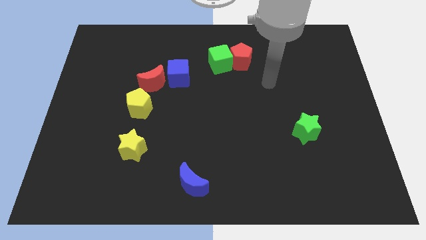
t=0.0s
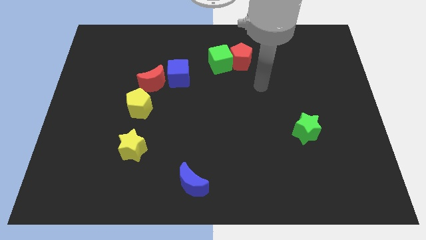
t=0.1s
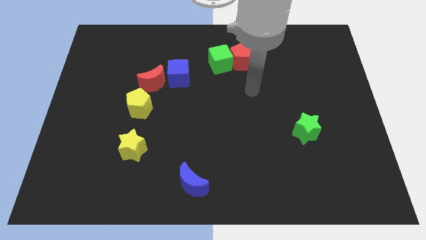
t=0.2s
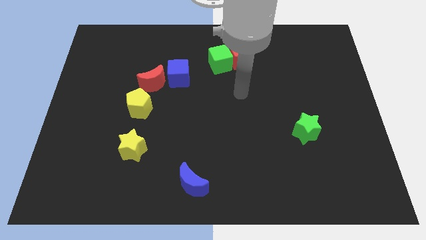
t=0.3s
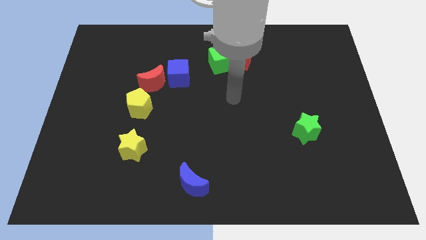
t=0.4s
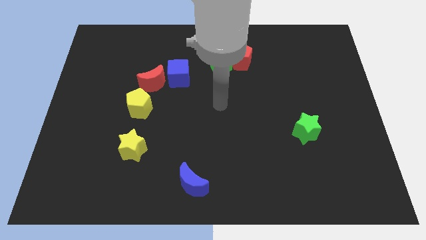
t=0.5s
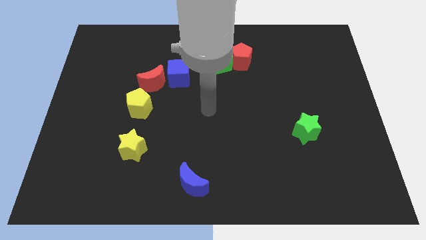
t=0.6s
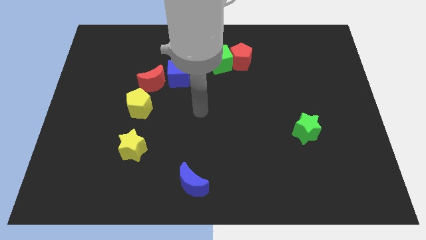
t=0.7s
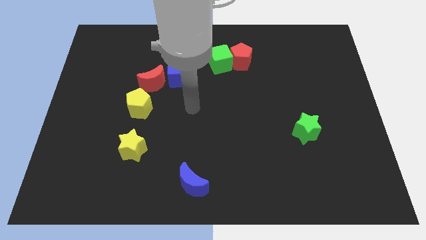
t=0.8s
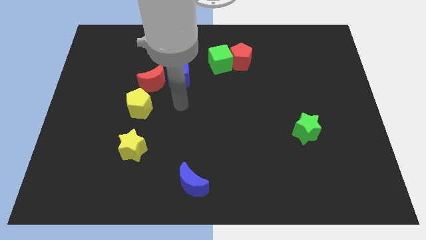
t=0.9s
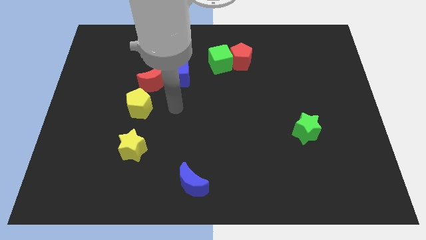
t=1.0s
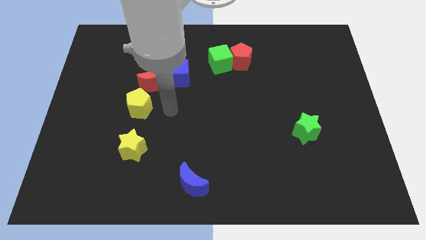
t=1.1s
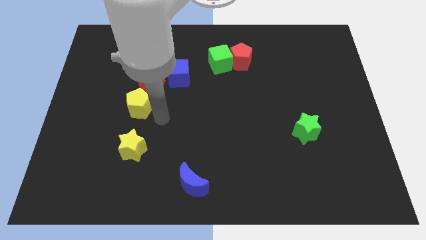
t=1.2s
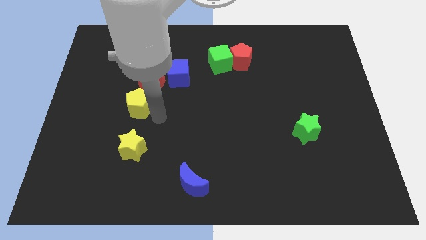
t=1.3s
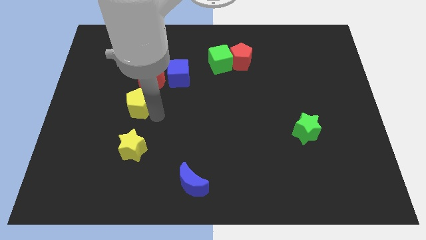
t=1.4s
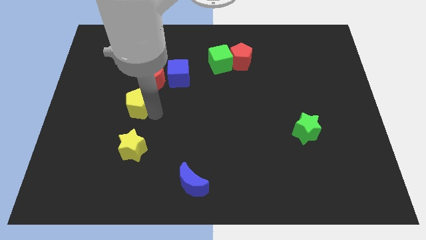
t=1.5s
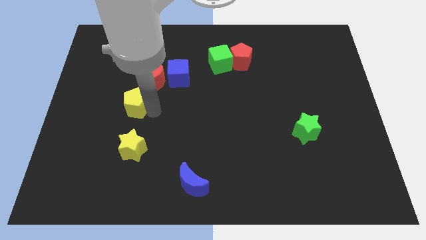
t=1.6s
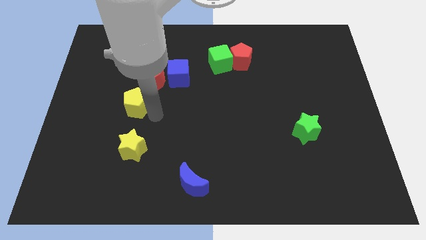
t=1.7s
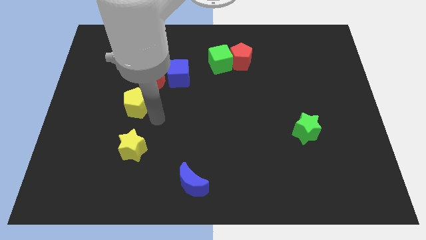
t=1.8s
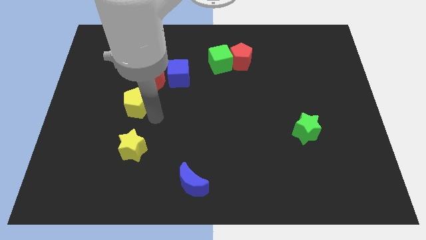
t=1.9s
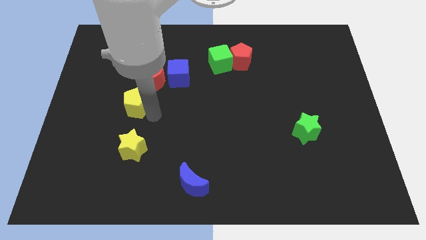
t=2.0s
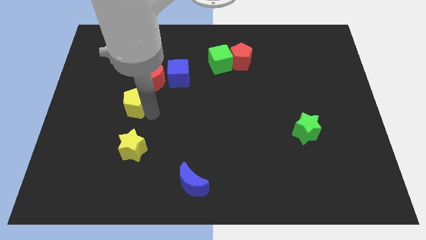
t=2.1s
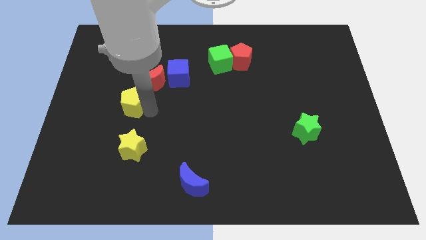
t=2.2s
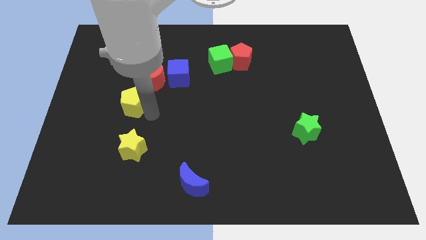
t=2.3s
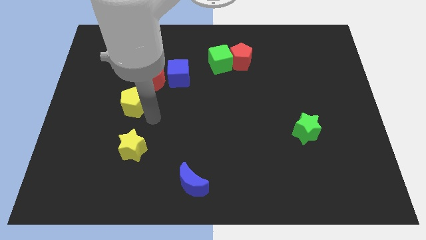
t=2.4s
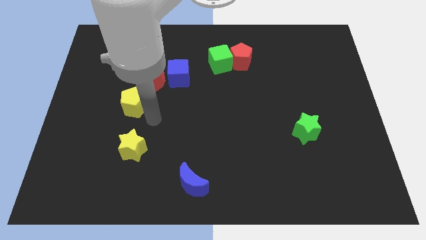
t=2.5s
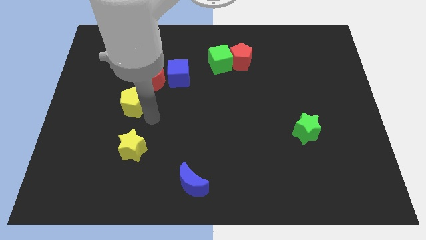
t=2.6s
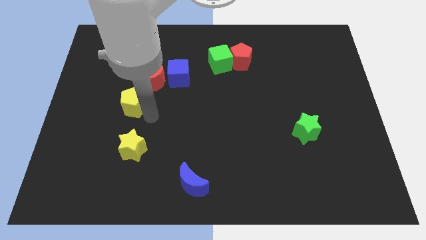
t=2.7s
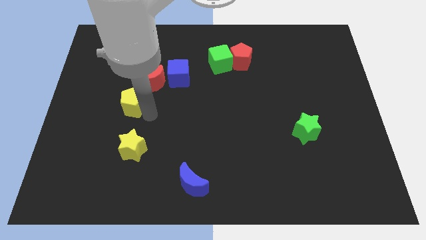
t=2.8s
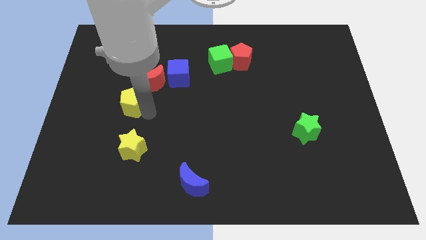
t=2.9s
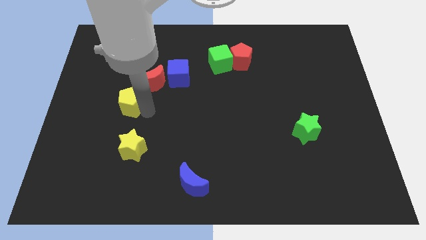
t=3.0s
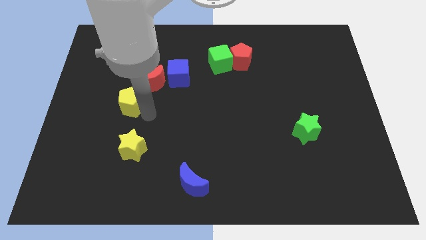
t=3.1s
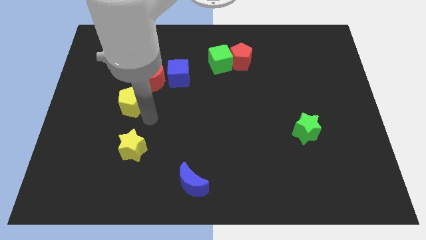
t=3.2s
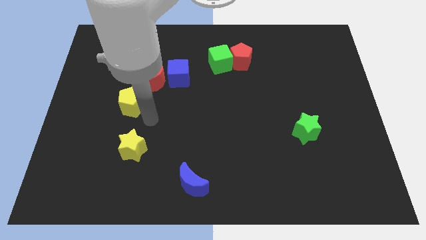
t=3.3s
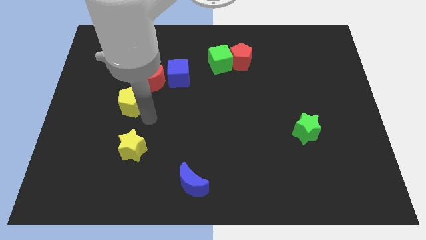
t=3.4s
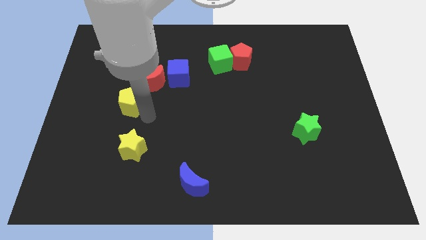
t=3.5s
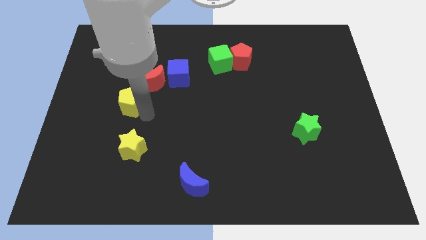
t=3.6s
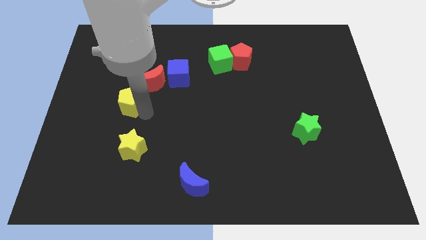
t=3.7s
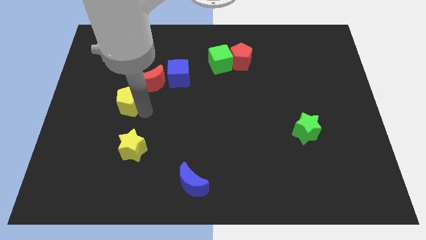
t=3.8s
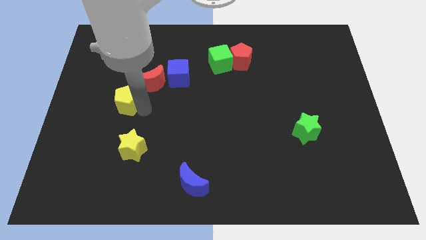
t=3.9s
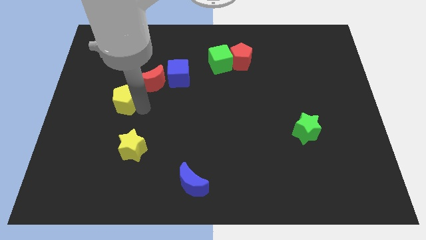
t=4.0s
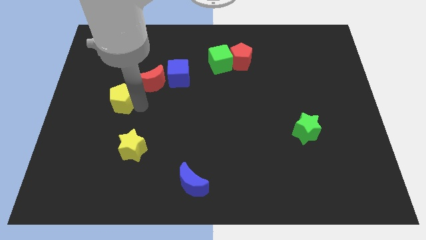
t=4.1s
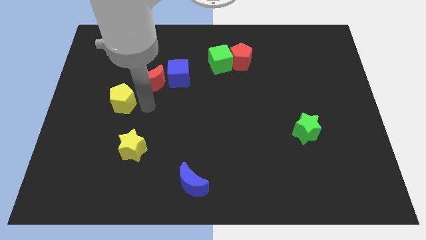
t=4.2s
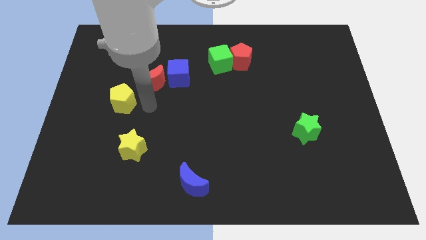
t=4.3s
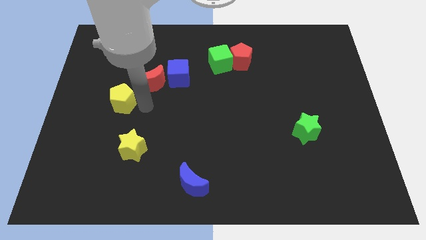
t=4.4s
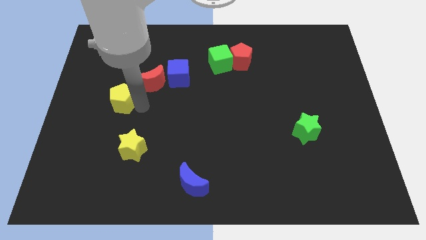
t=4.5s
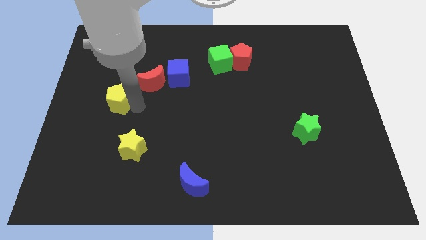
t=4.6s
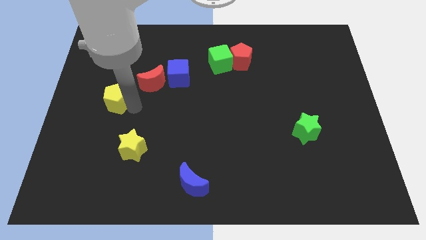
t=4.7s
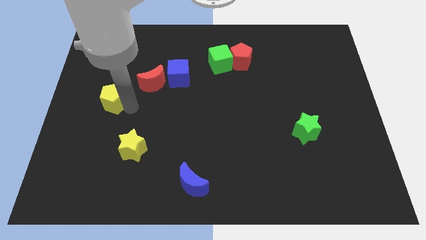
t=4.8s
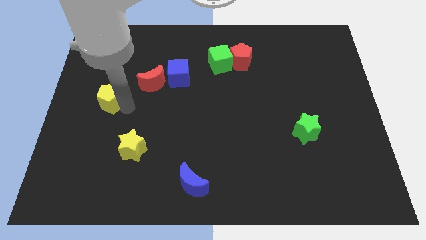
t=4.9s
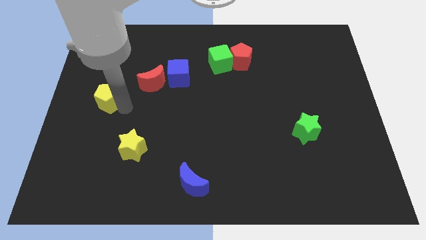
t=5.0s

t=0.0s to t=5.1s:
move the yellow pentagon to the left side of the board

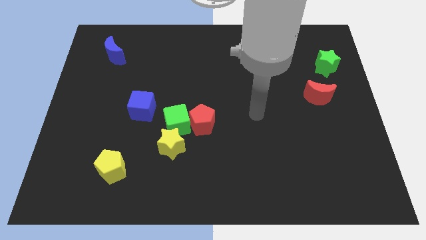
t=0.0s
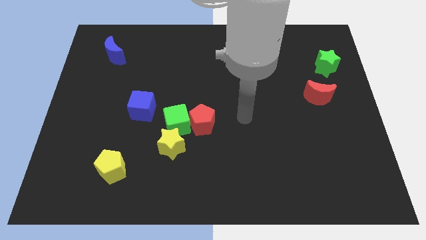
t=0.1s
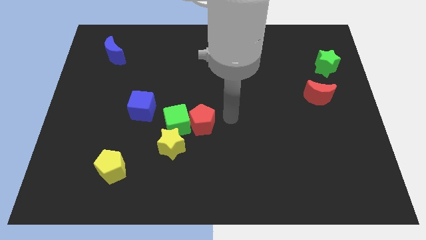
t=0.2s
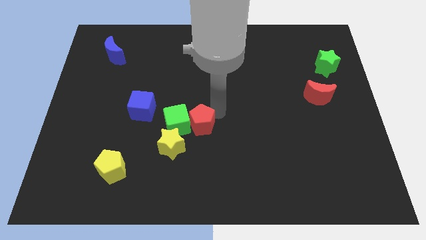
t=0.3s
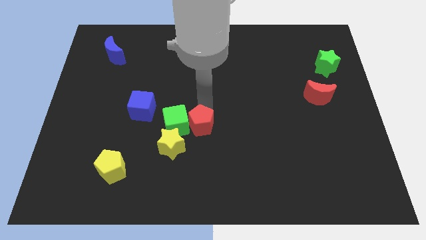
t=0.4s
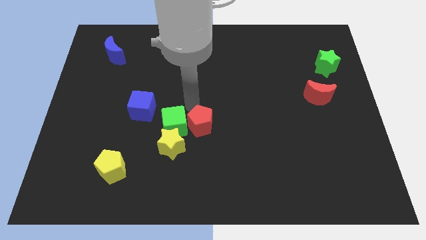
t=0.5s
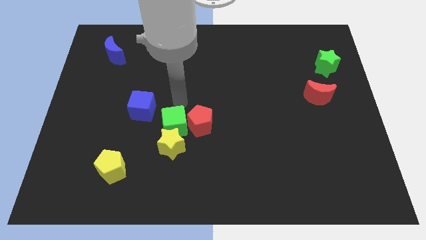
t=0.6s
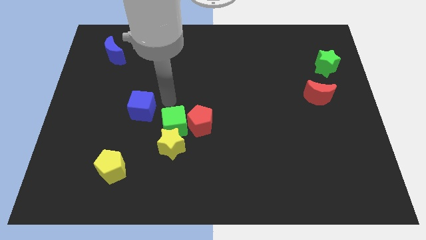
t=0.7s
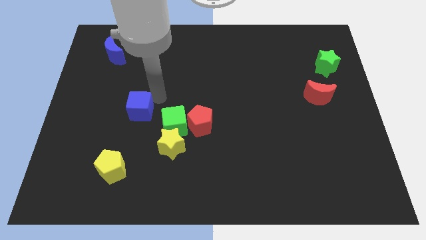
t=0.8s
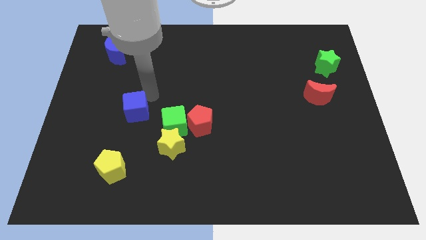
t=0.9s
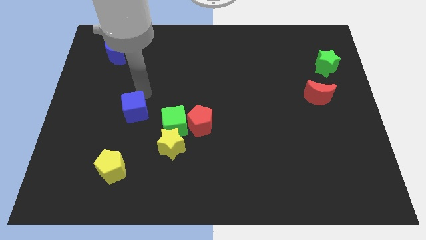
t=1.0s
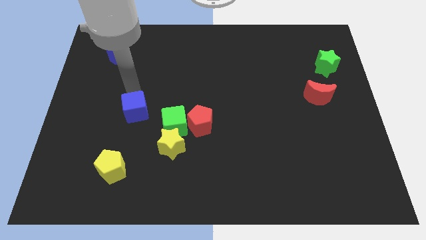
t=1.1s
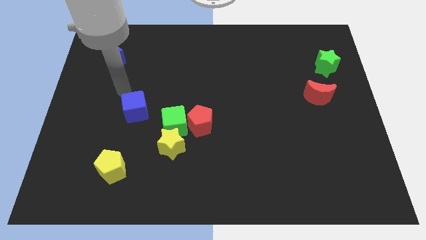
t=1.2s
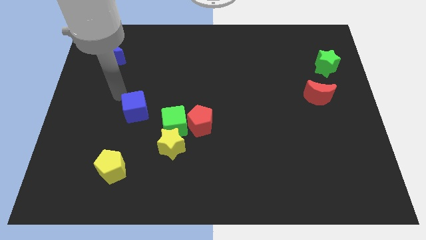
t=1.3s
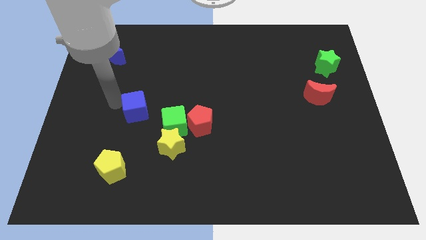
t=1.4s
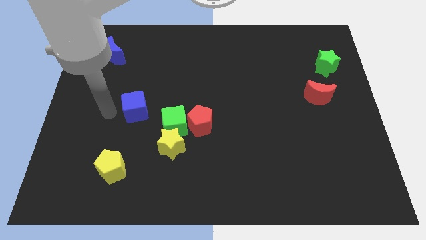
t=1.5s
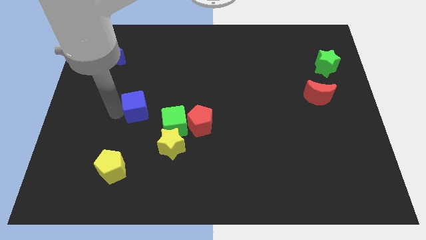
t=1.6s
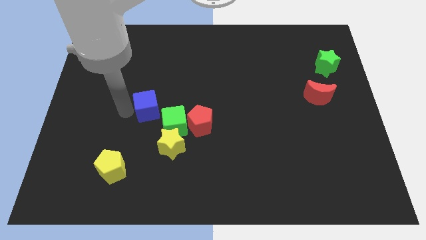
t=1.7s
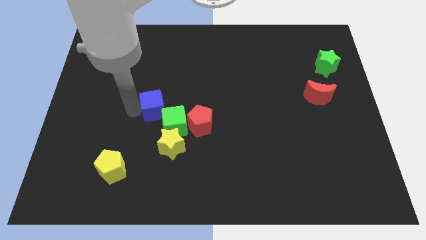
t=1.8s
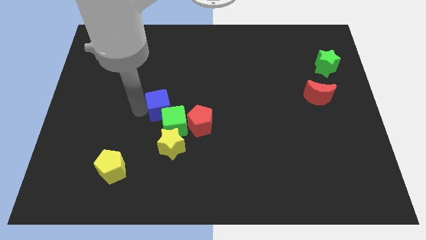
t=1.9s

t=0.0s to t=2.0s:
move the blue cube to the center of the board
